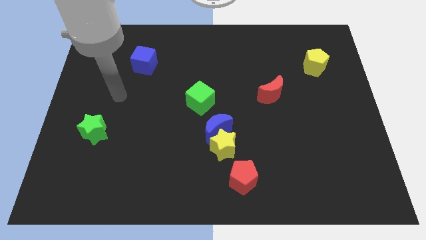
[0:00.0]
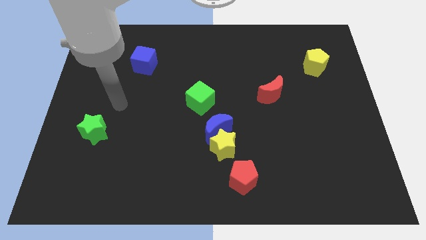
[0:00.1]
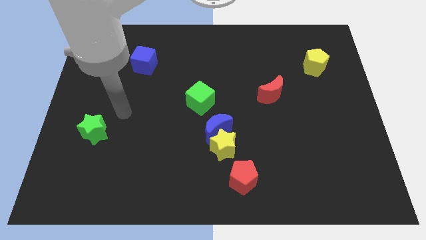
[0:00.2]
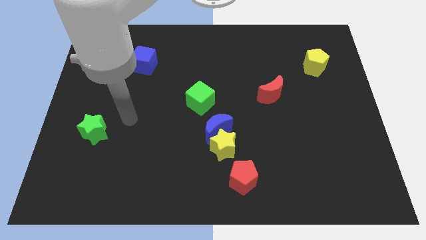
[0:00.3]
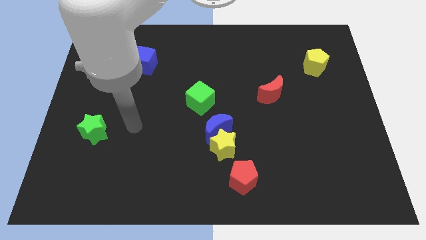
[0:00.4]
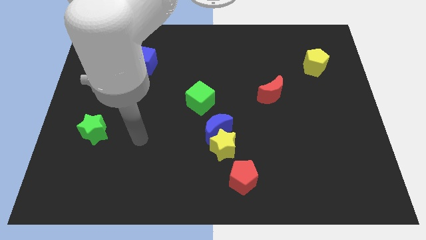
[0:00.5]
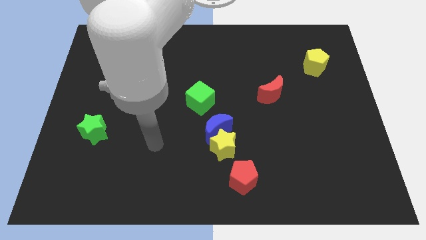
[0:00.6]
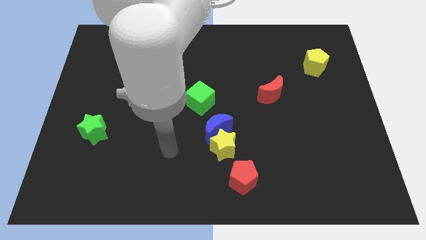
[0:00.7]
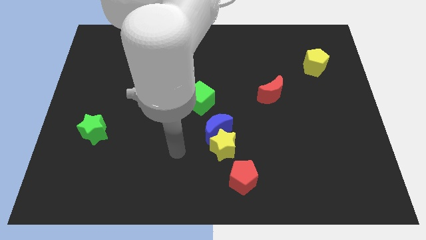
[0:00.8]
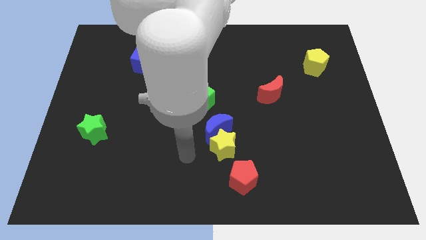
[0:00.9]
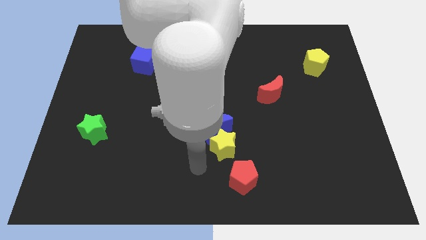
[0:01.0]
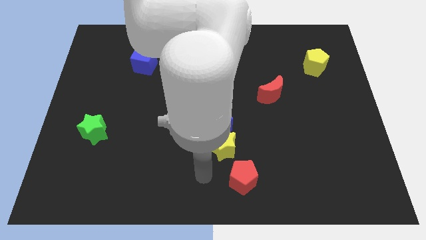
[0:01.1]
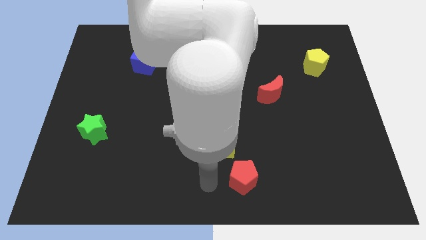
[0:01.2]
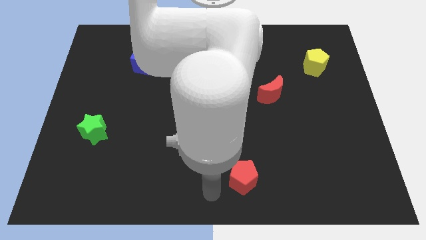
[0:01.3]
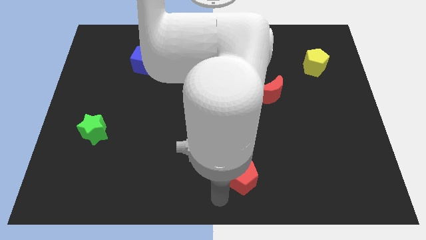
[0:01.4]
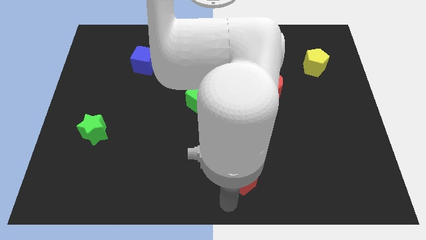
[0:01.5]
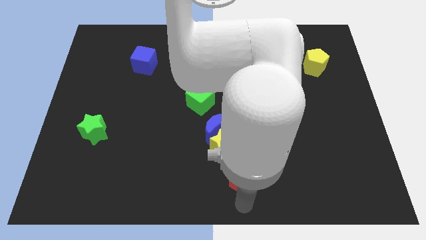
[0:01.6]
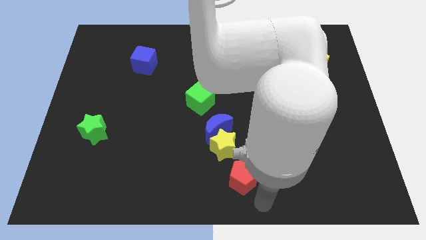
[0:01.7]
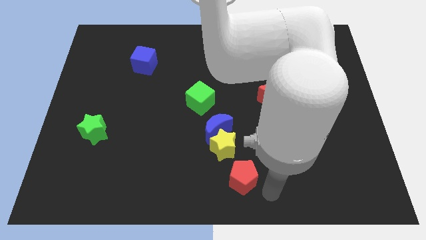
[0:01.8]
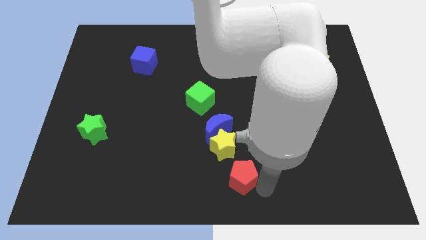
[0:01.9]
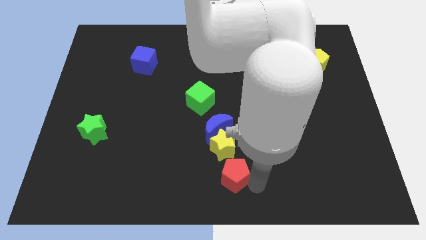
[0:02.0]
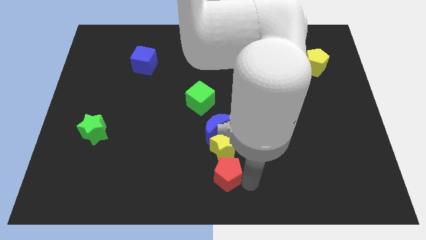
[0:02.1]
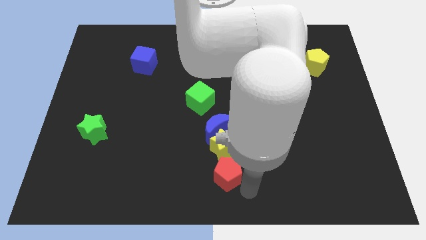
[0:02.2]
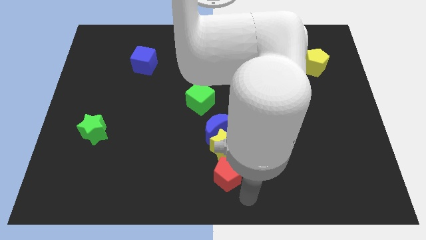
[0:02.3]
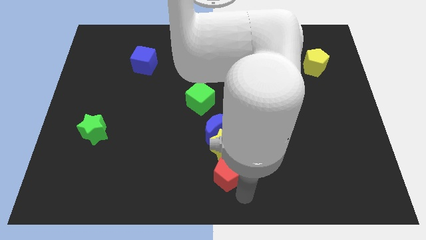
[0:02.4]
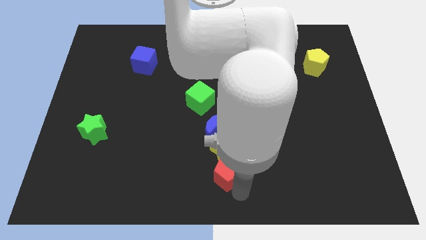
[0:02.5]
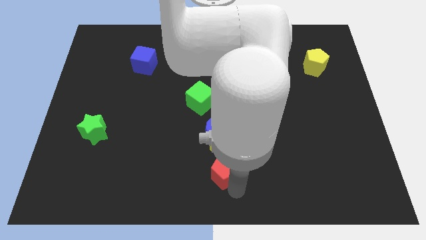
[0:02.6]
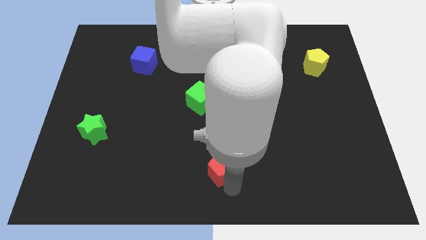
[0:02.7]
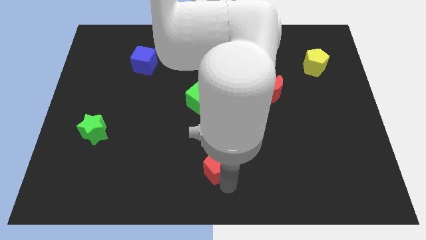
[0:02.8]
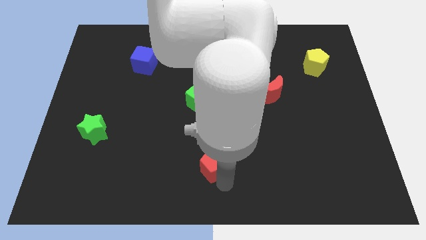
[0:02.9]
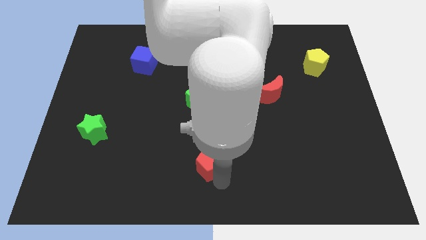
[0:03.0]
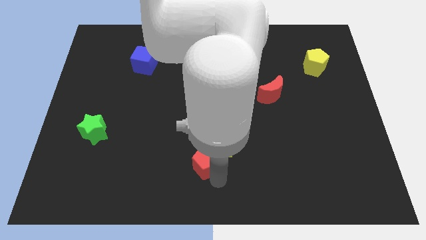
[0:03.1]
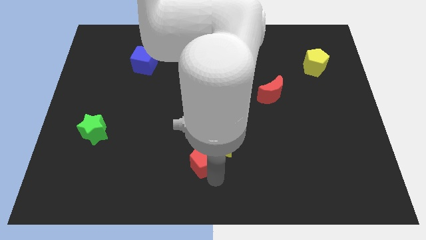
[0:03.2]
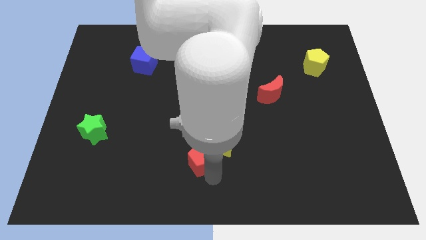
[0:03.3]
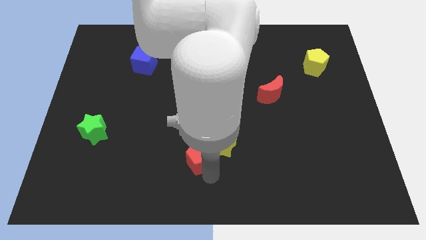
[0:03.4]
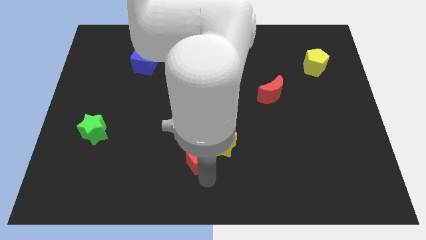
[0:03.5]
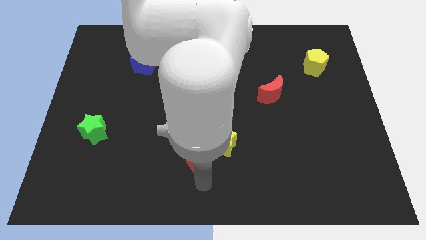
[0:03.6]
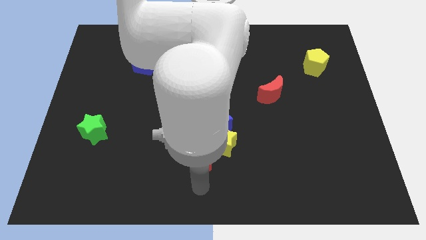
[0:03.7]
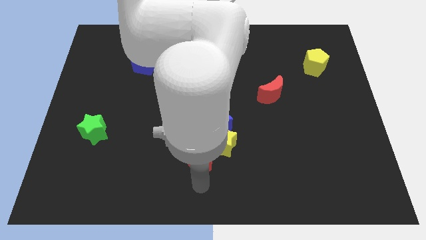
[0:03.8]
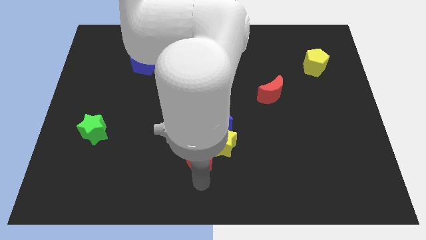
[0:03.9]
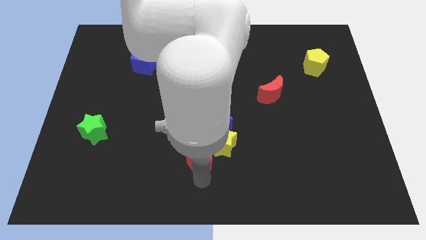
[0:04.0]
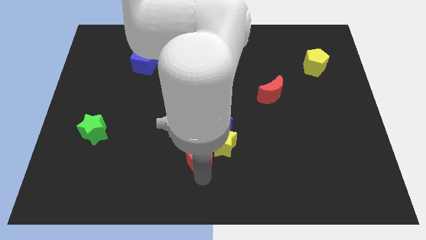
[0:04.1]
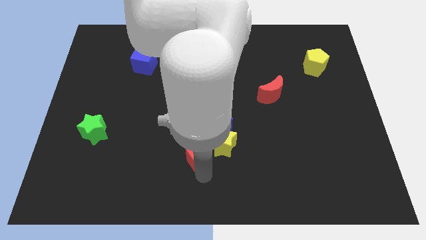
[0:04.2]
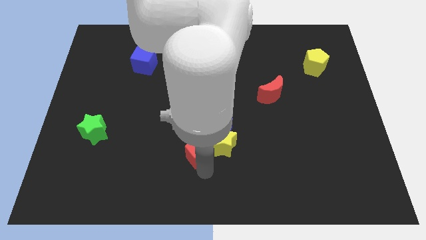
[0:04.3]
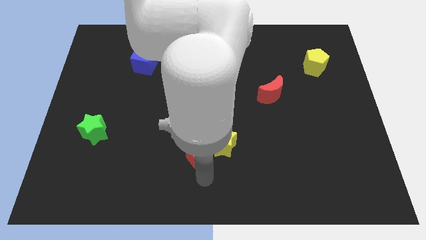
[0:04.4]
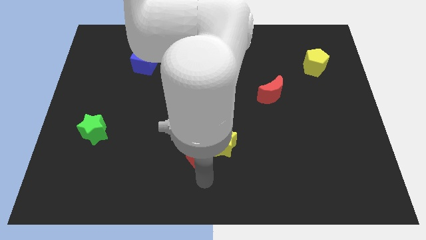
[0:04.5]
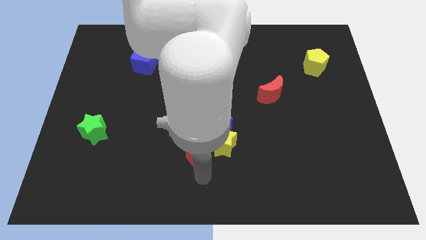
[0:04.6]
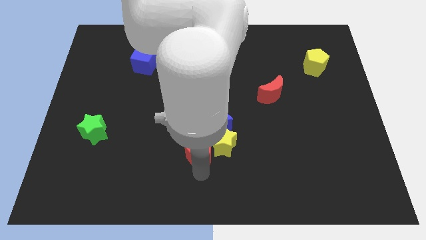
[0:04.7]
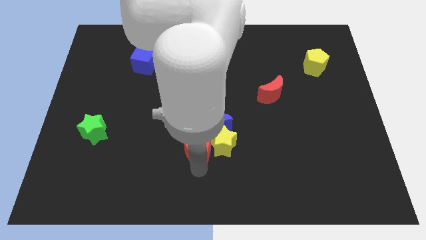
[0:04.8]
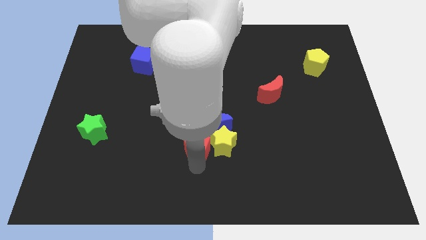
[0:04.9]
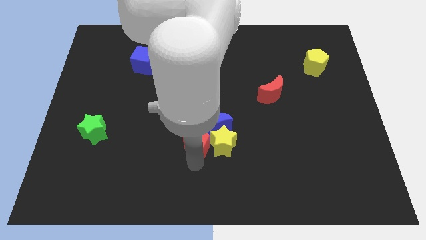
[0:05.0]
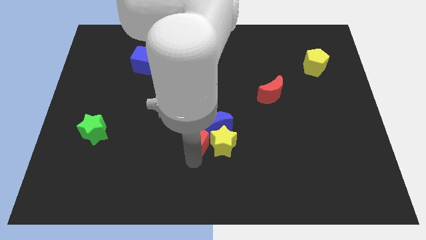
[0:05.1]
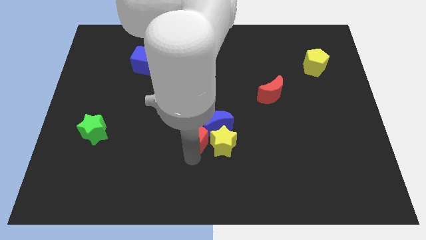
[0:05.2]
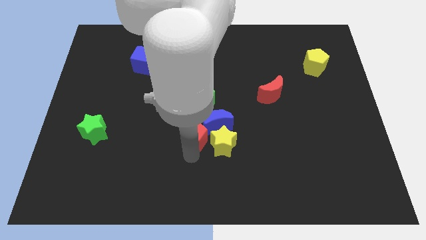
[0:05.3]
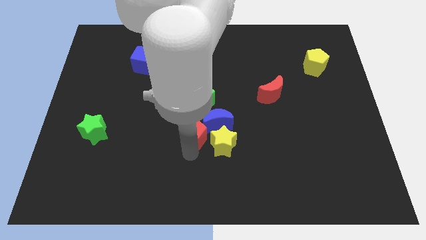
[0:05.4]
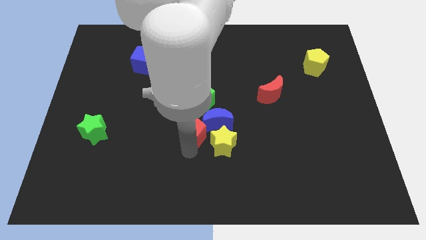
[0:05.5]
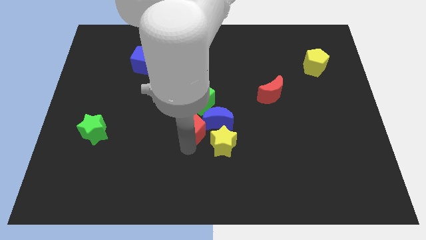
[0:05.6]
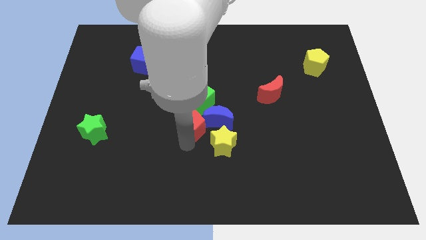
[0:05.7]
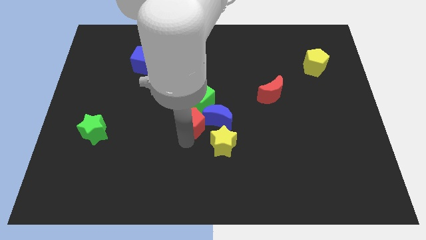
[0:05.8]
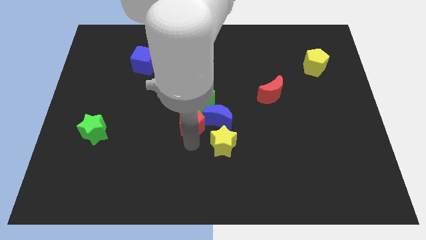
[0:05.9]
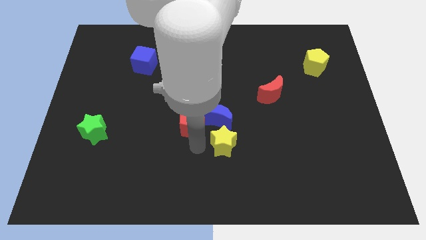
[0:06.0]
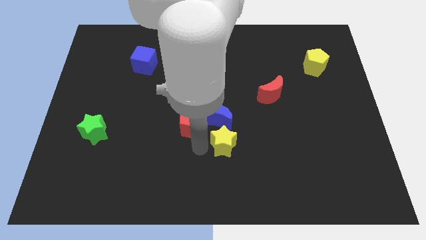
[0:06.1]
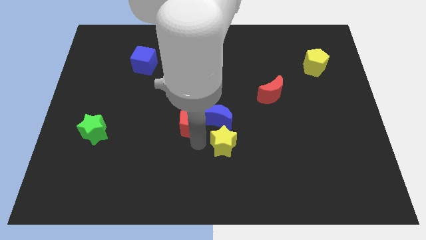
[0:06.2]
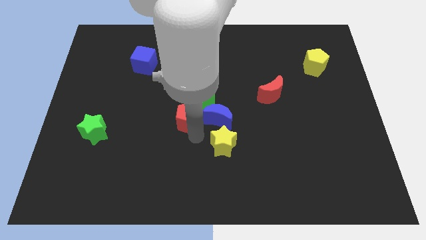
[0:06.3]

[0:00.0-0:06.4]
push the red pentagon to the top left of the blue moon
